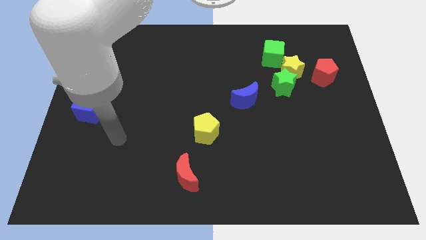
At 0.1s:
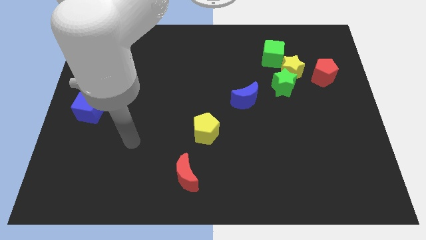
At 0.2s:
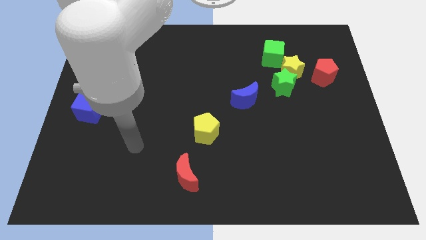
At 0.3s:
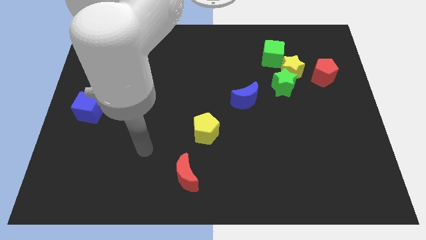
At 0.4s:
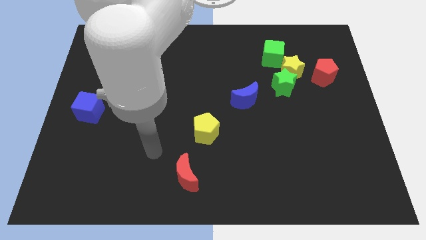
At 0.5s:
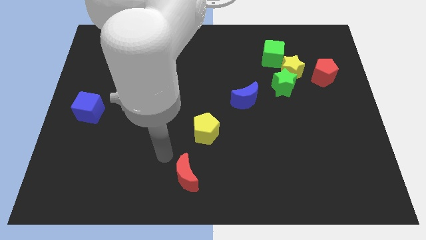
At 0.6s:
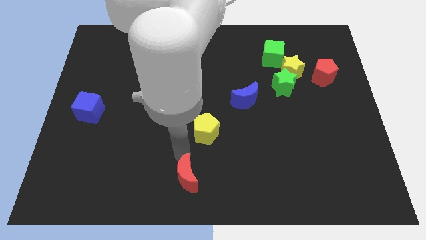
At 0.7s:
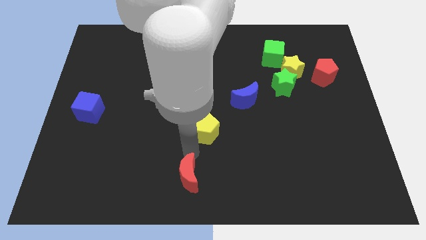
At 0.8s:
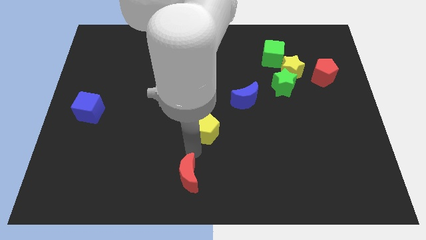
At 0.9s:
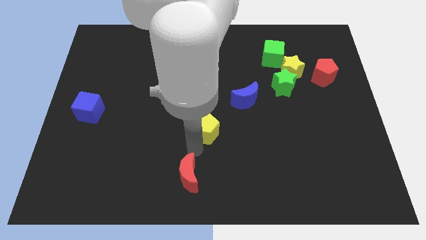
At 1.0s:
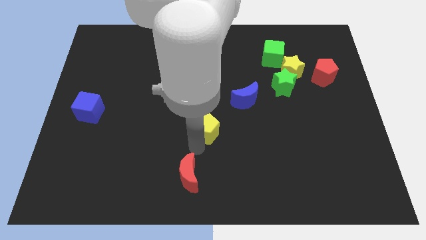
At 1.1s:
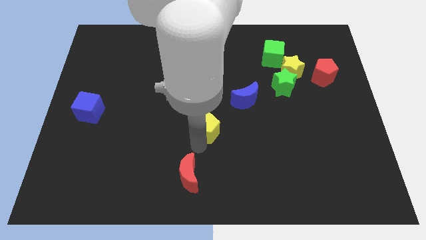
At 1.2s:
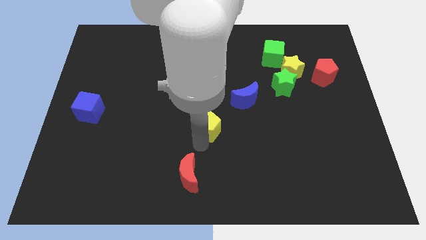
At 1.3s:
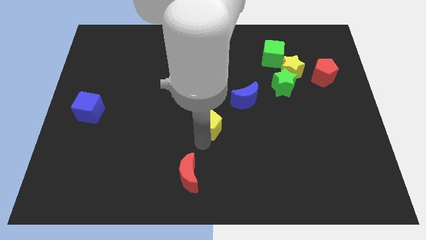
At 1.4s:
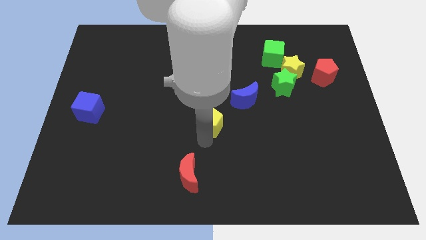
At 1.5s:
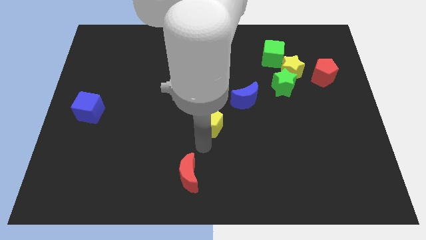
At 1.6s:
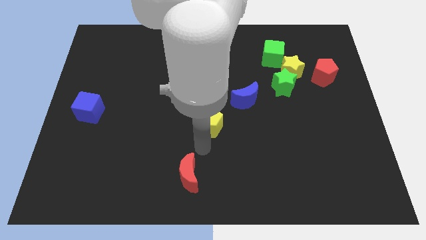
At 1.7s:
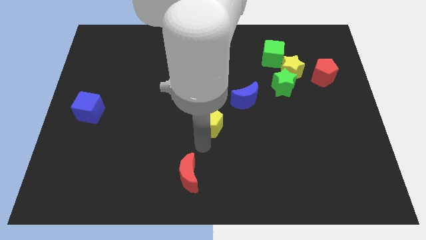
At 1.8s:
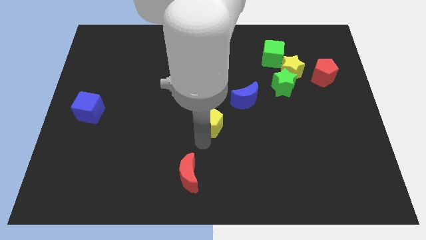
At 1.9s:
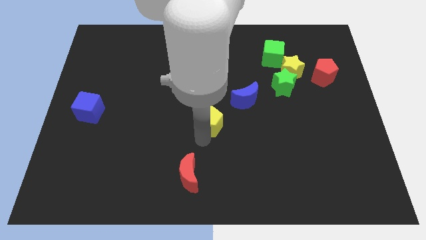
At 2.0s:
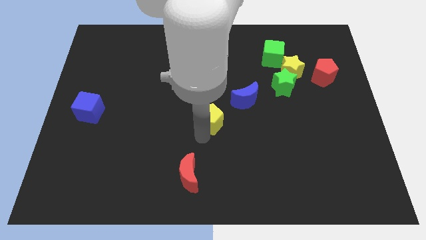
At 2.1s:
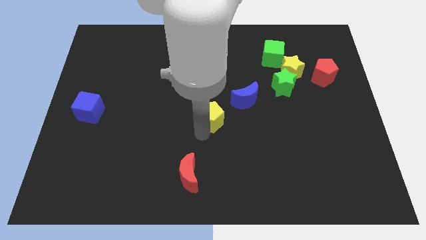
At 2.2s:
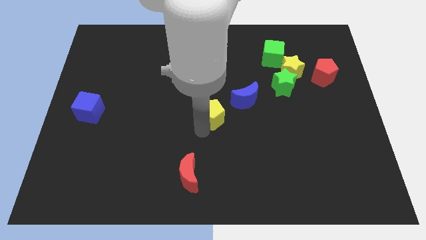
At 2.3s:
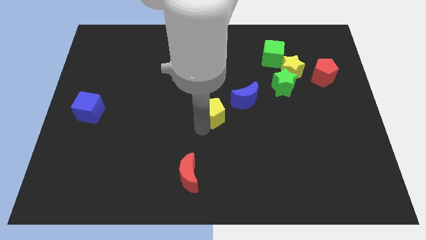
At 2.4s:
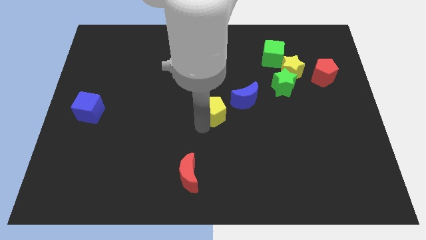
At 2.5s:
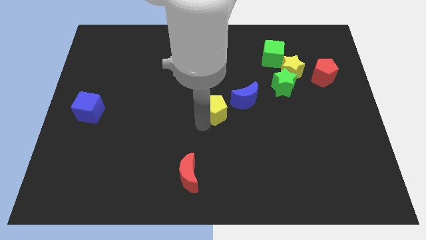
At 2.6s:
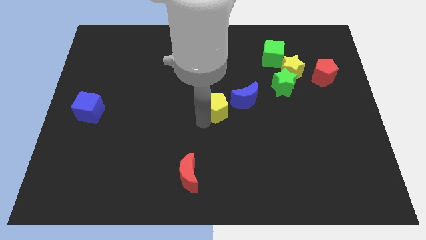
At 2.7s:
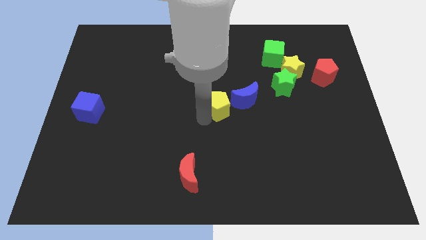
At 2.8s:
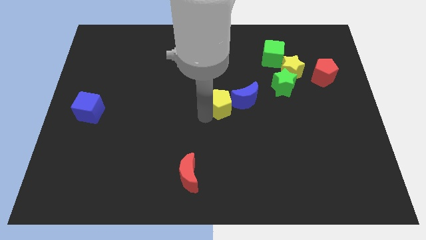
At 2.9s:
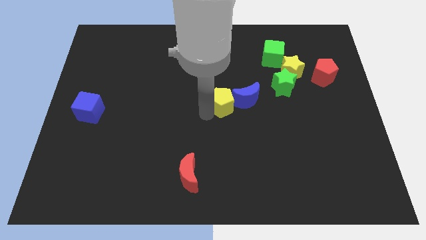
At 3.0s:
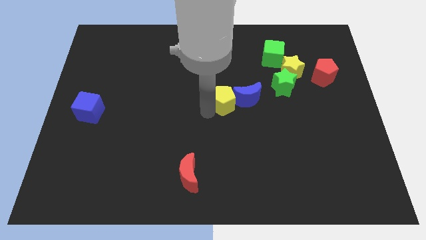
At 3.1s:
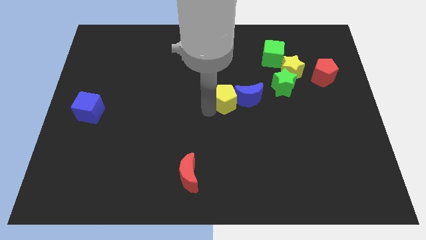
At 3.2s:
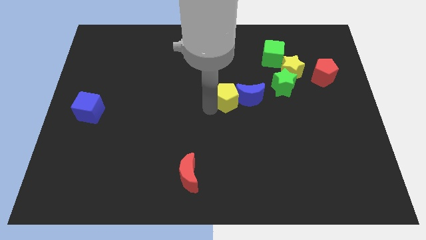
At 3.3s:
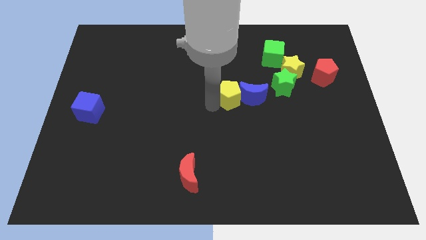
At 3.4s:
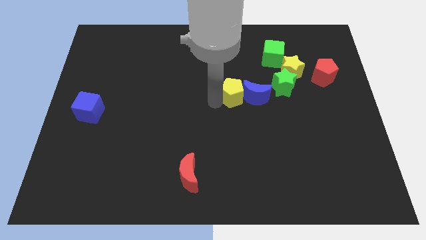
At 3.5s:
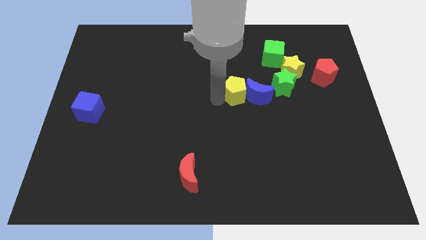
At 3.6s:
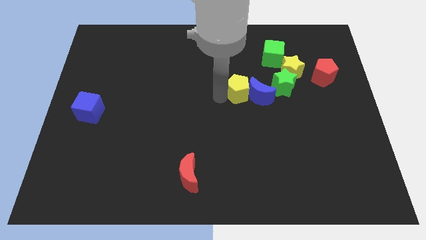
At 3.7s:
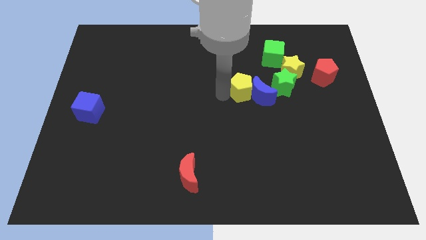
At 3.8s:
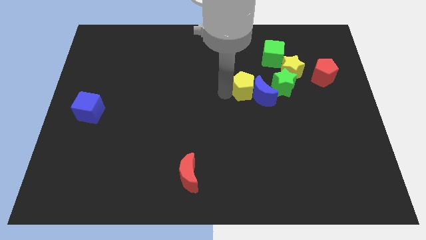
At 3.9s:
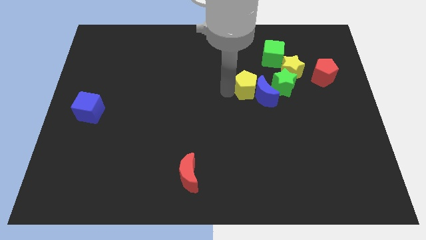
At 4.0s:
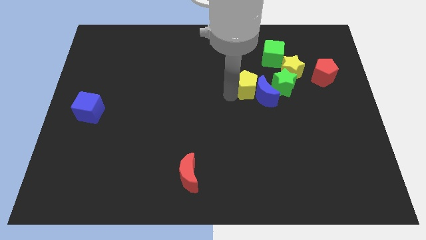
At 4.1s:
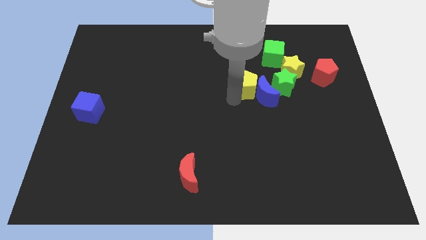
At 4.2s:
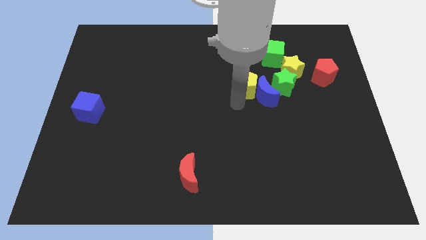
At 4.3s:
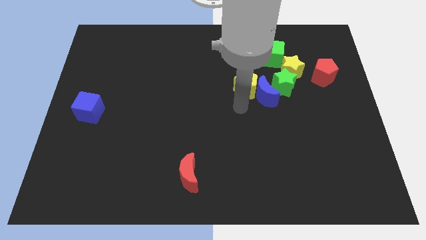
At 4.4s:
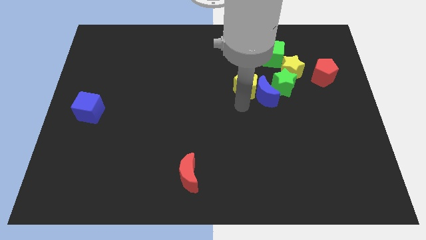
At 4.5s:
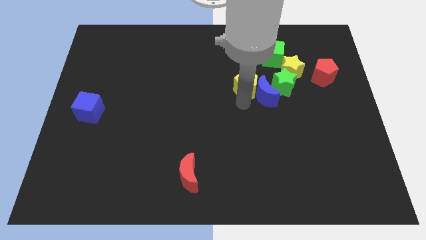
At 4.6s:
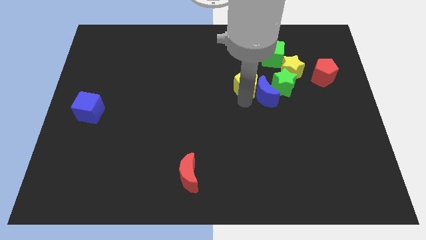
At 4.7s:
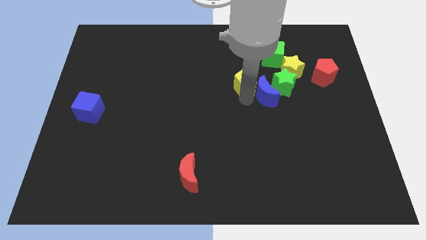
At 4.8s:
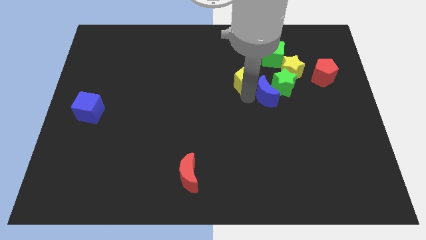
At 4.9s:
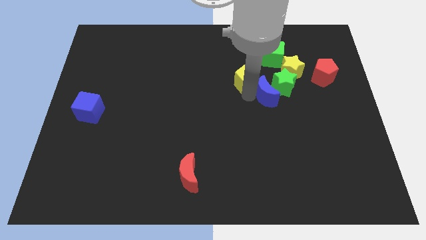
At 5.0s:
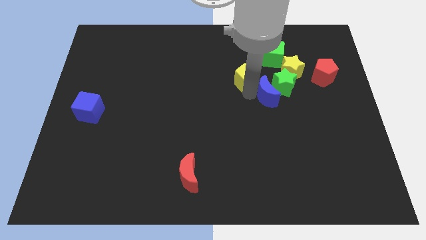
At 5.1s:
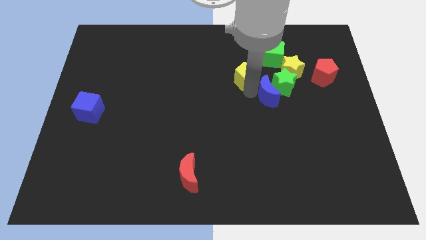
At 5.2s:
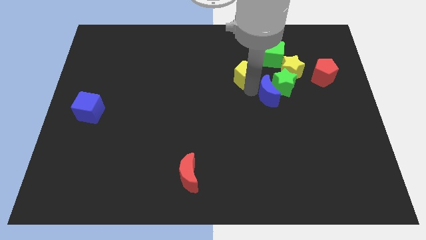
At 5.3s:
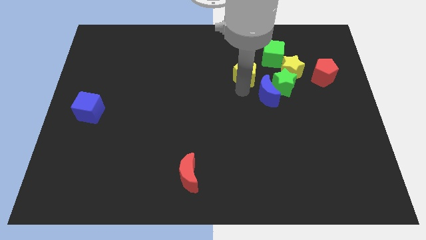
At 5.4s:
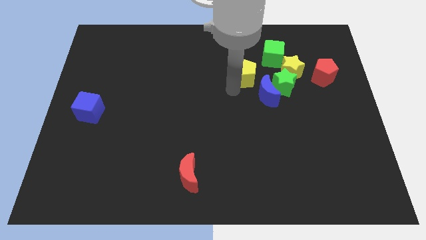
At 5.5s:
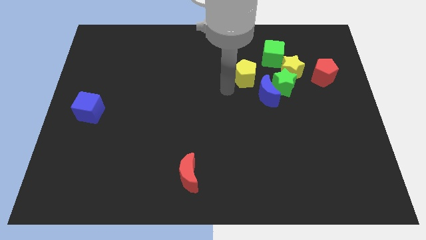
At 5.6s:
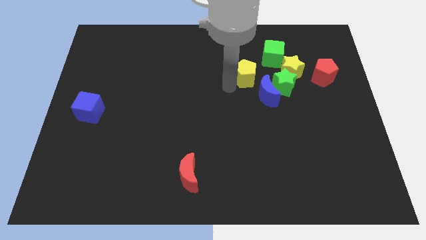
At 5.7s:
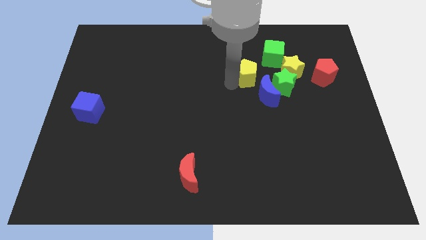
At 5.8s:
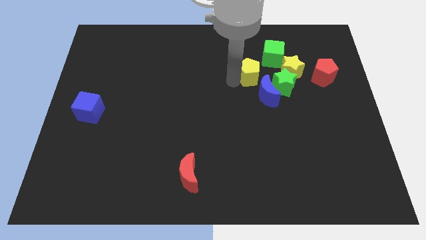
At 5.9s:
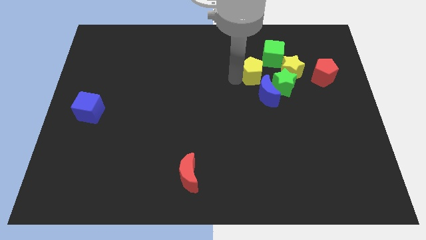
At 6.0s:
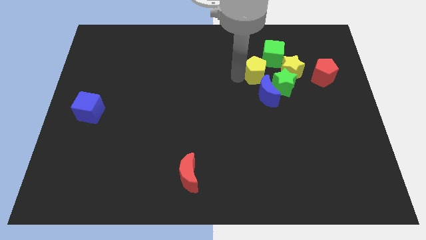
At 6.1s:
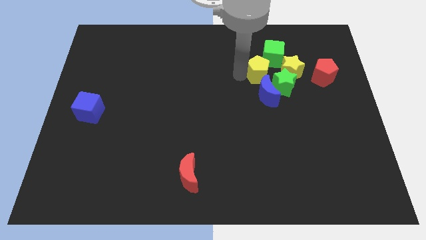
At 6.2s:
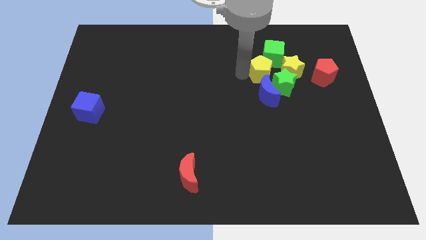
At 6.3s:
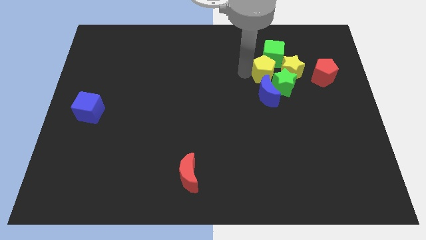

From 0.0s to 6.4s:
put the yellow pentagon to the green cube
